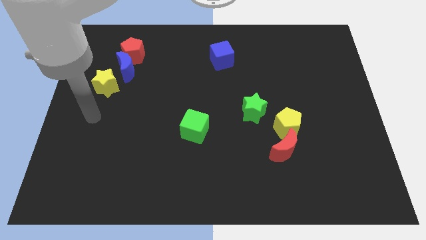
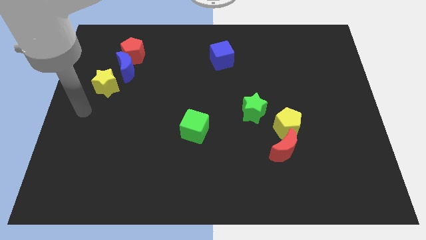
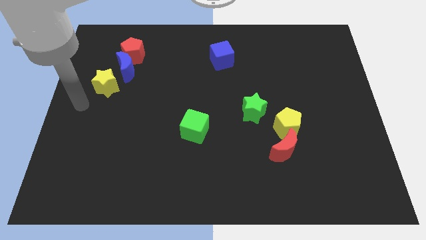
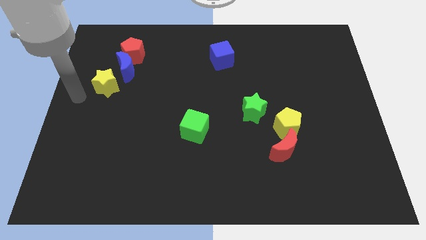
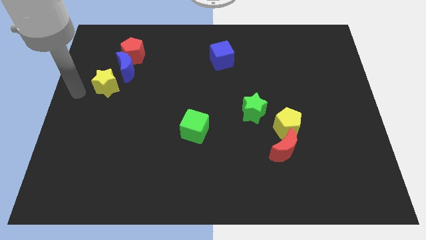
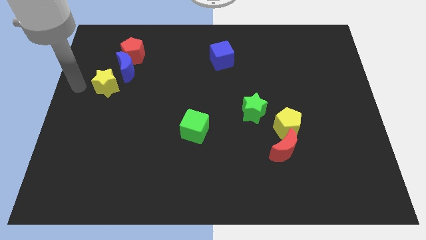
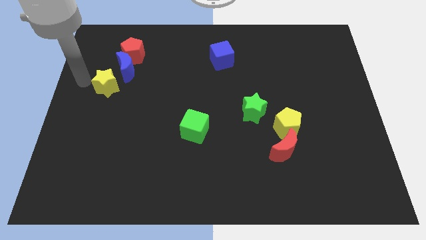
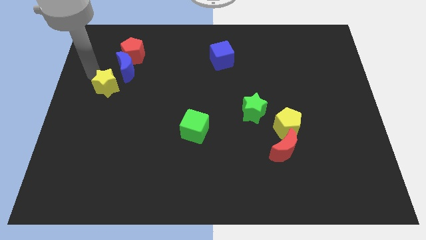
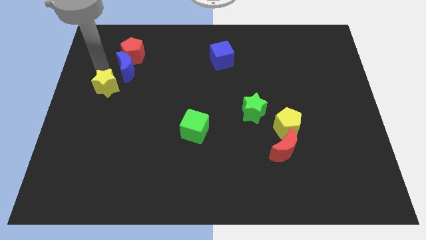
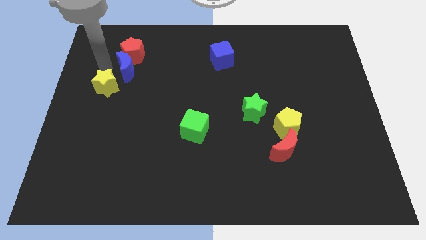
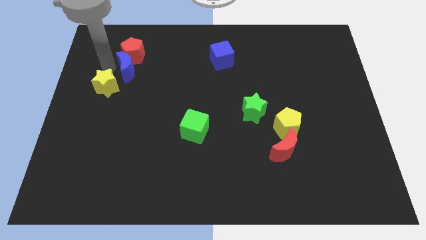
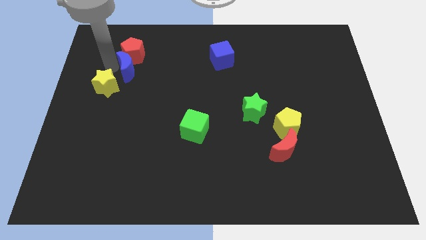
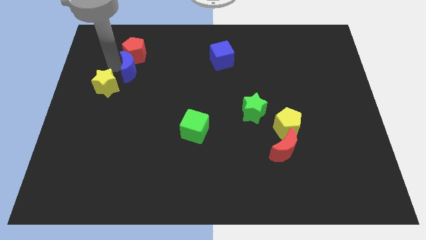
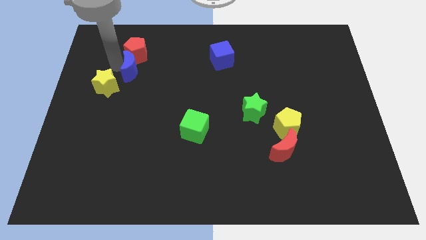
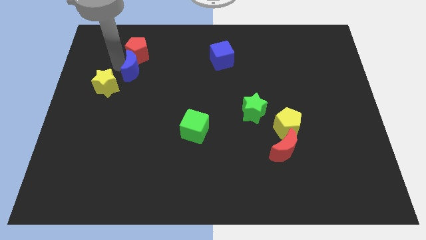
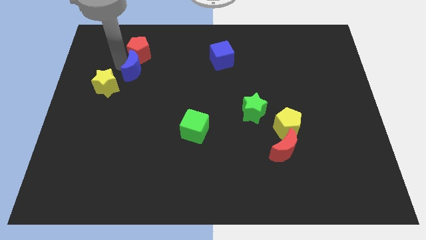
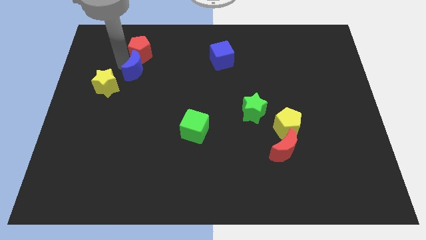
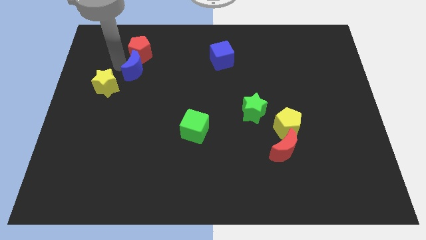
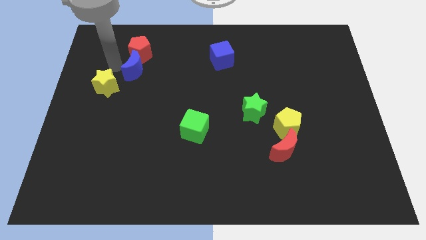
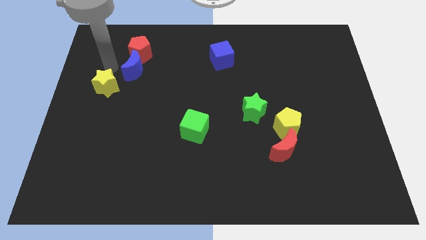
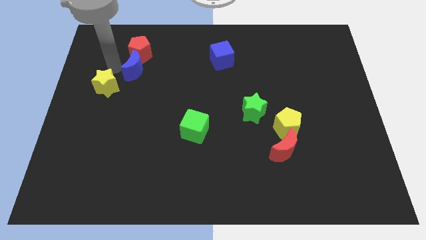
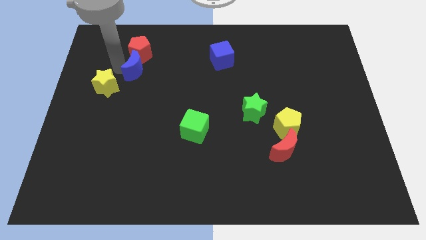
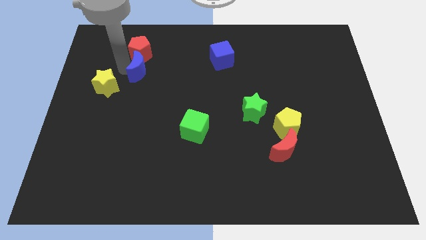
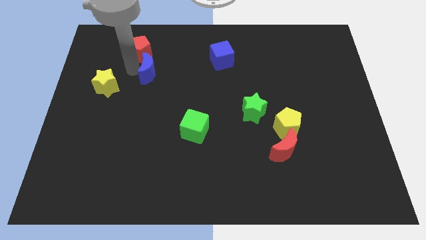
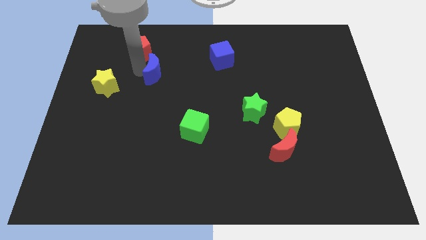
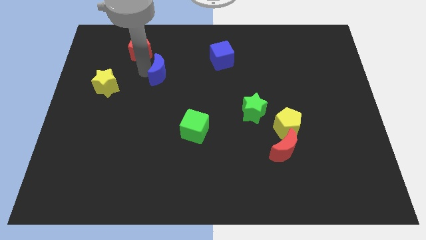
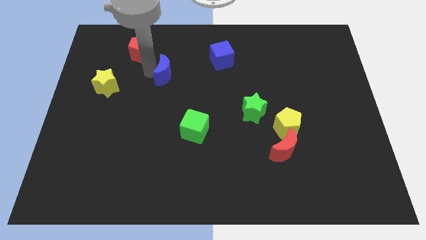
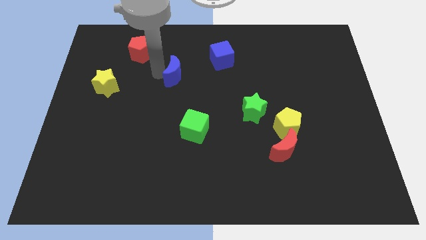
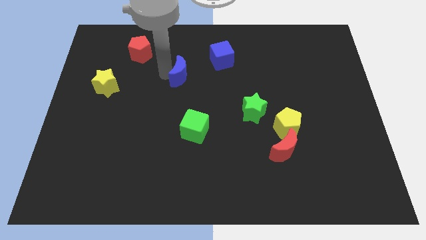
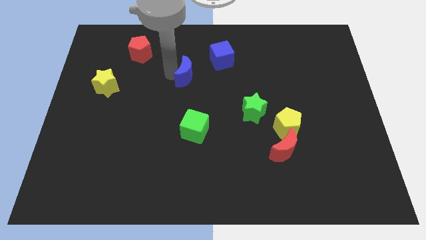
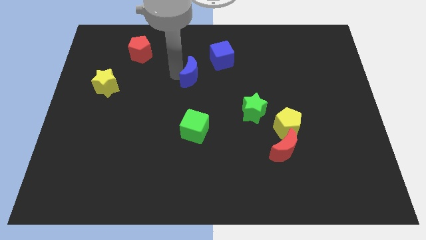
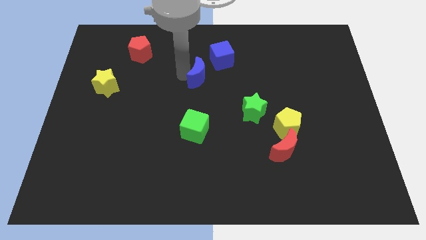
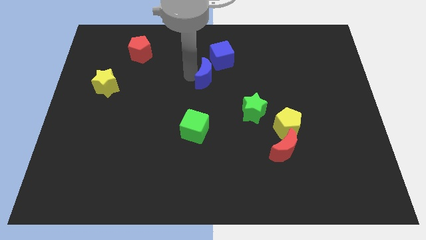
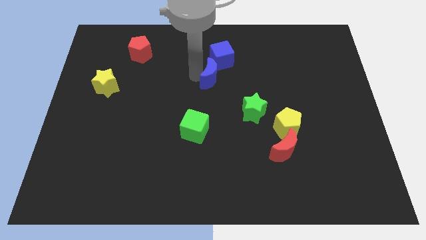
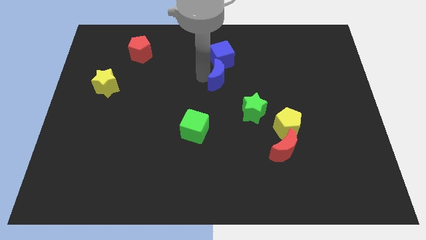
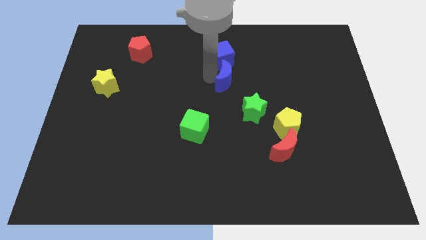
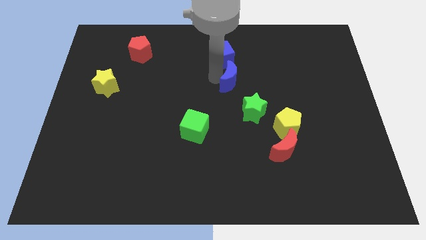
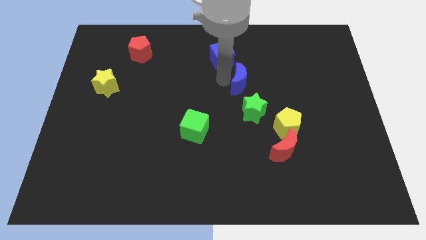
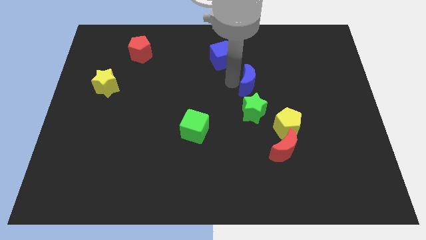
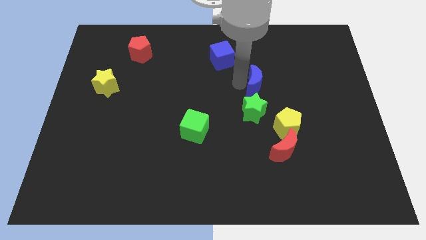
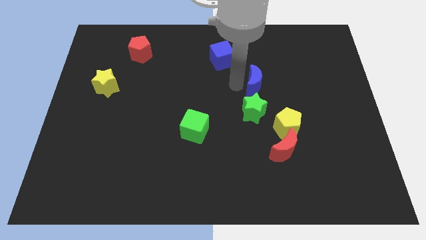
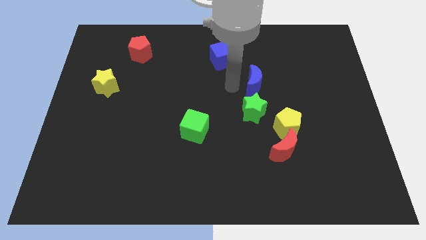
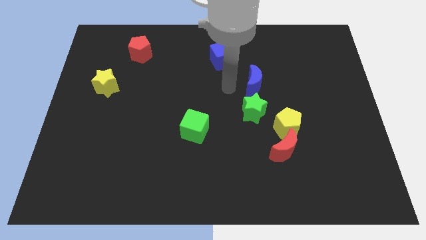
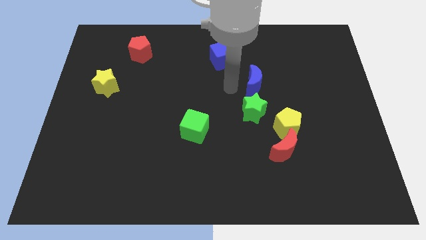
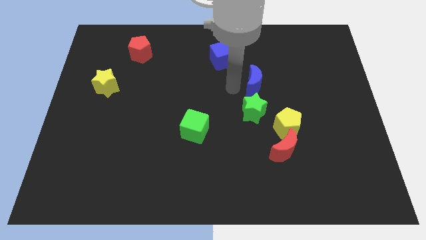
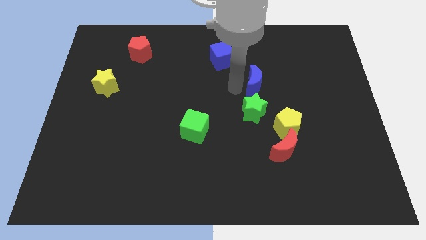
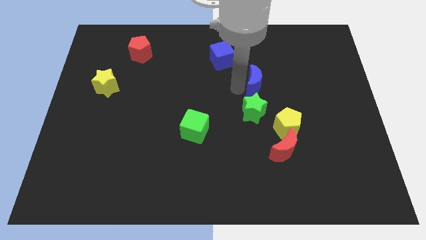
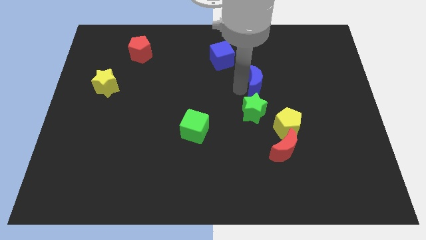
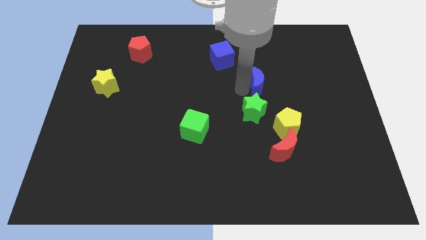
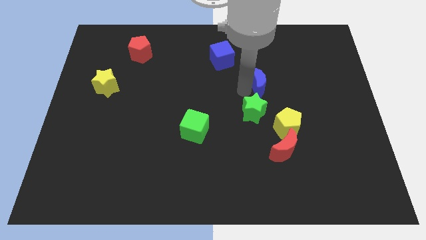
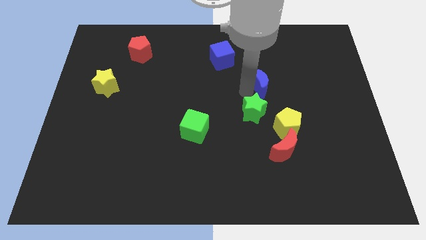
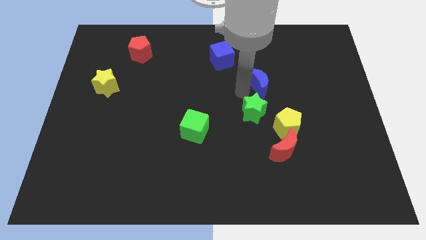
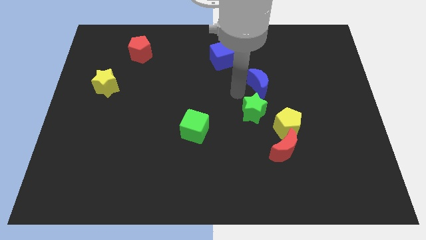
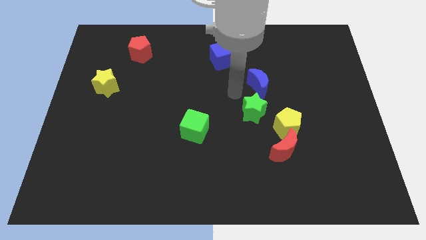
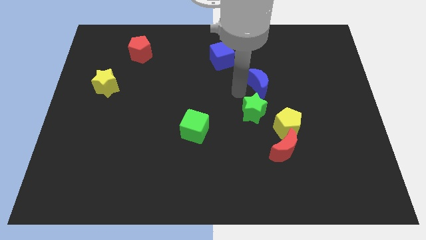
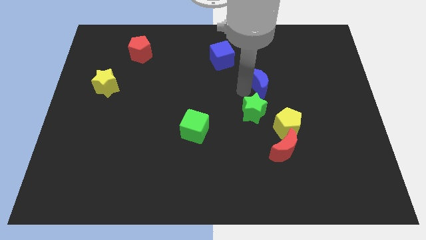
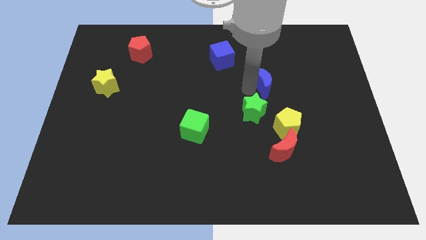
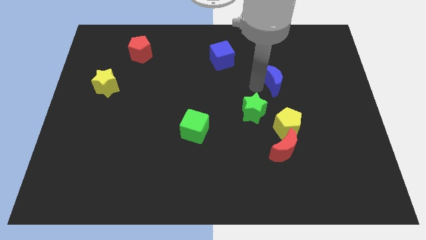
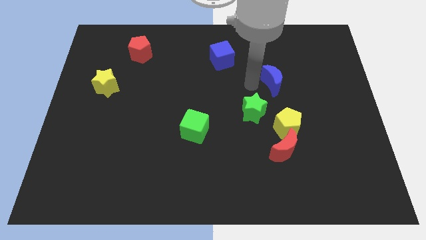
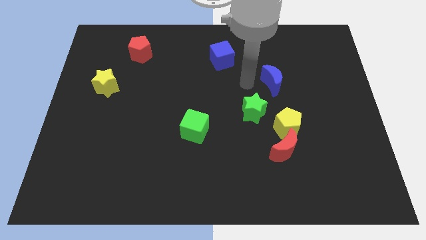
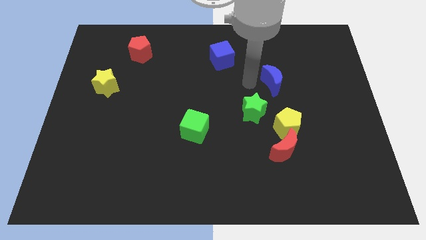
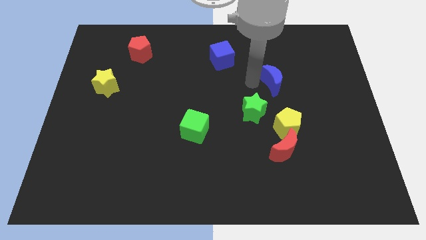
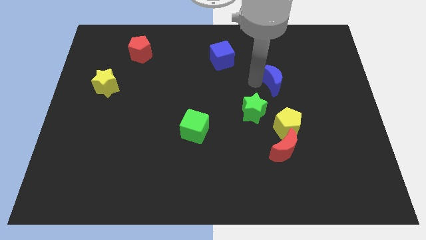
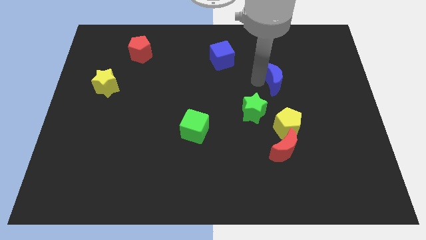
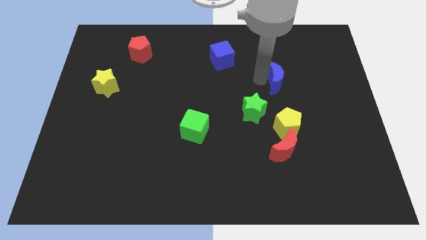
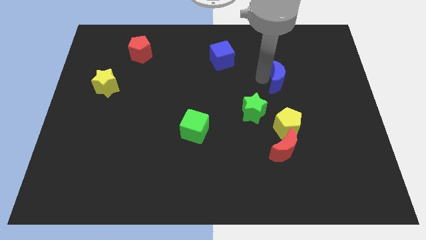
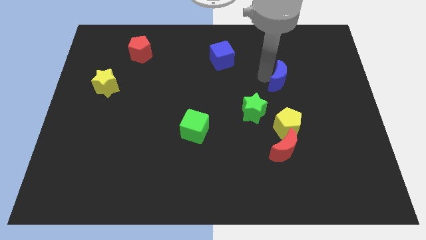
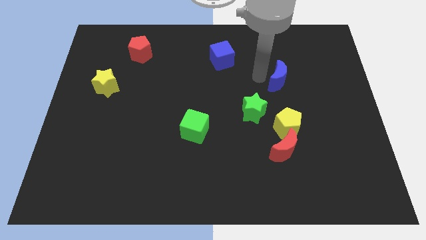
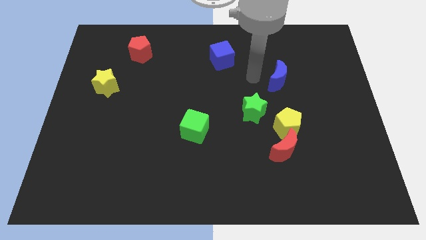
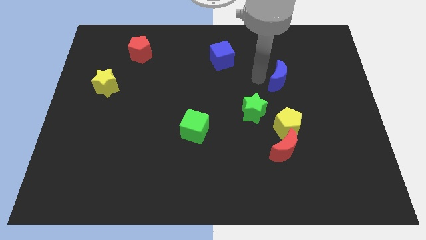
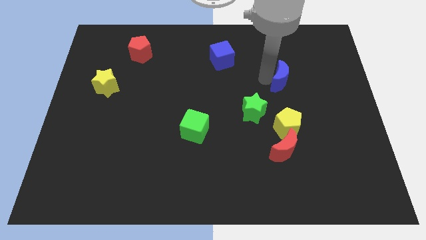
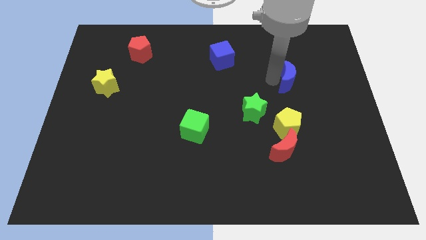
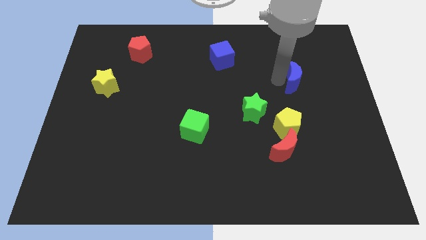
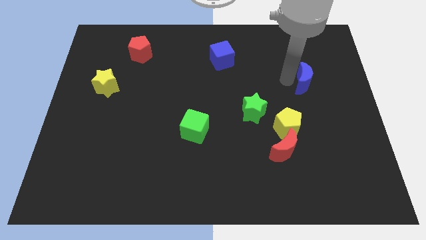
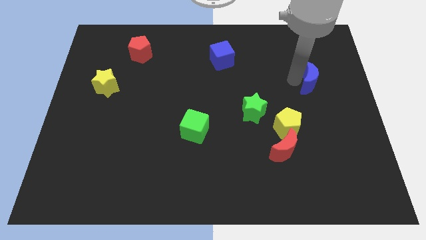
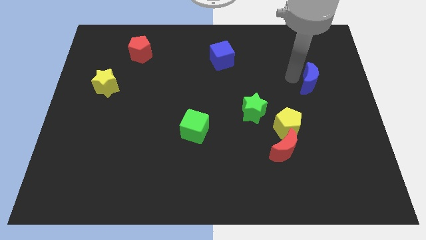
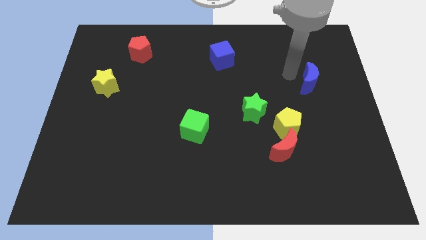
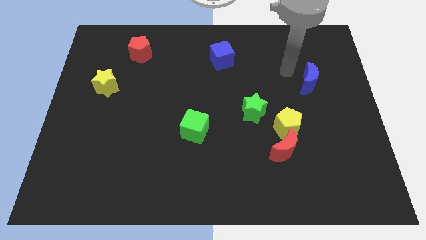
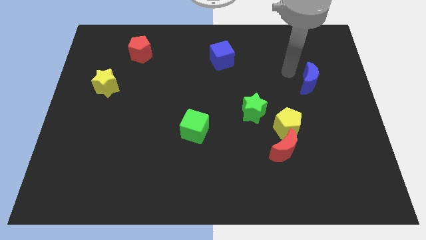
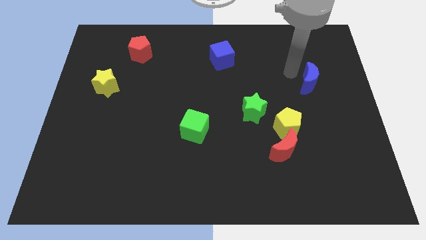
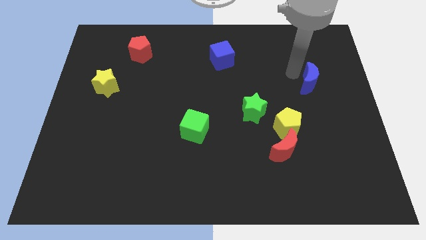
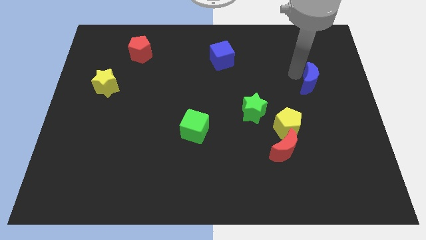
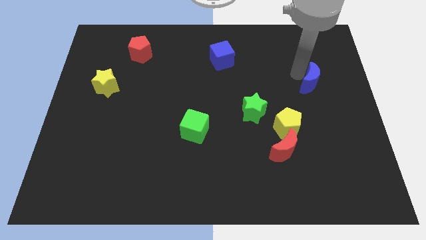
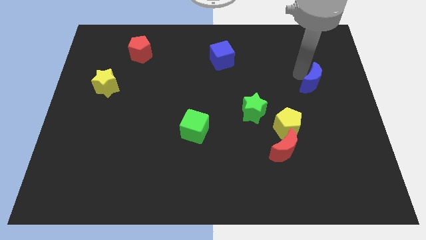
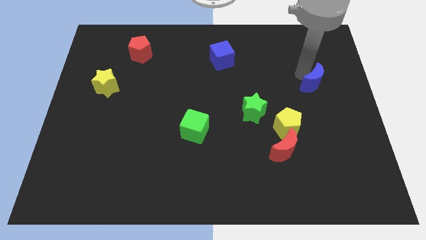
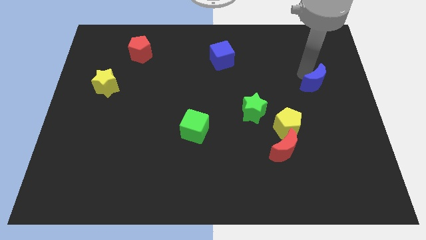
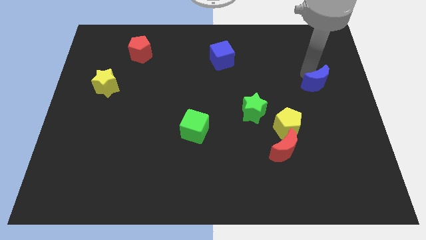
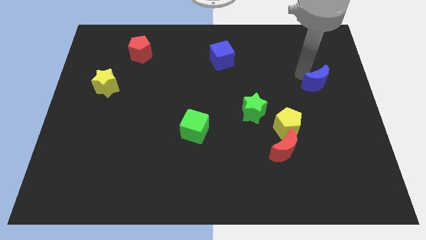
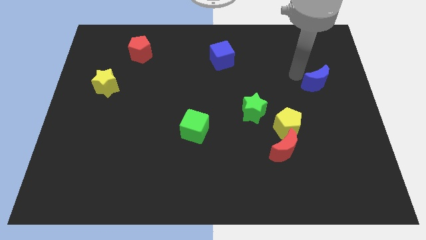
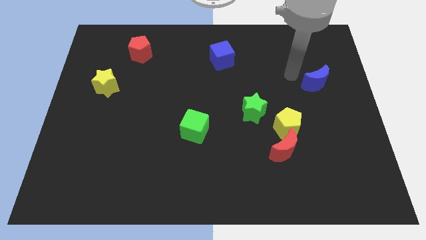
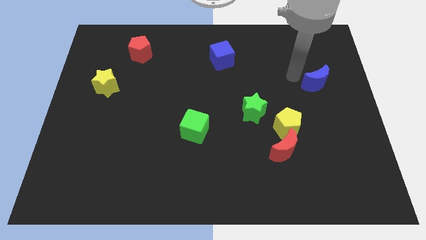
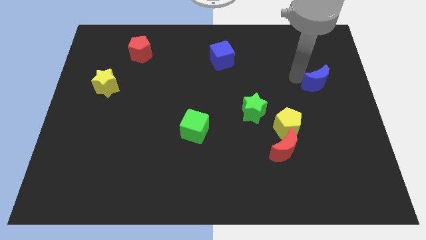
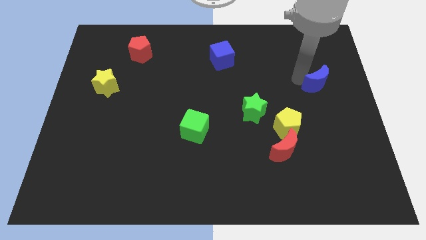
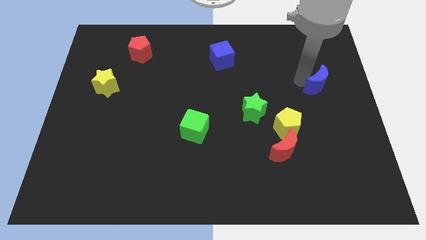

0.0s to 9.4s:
push the blue moon to the center right
